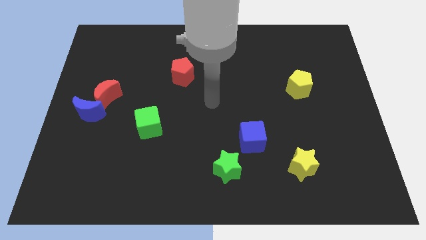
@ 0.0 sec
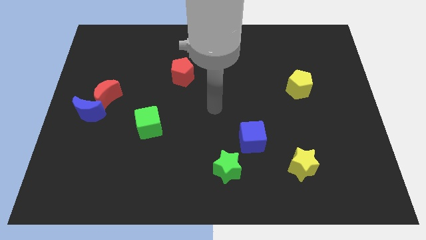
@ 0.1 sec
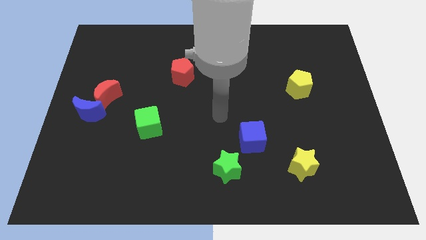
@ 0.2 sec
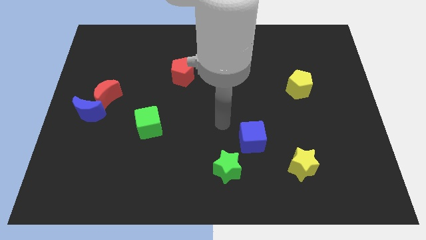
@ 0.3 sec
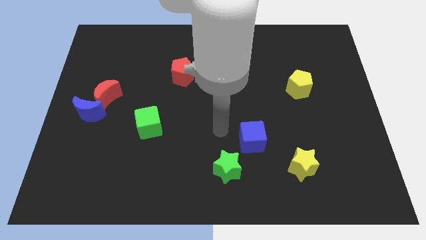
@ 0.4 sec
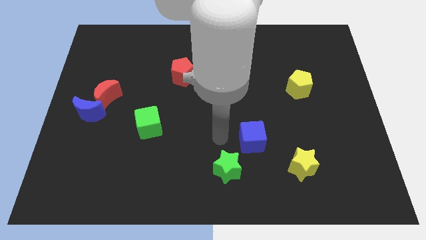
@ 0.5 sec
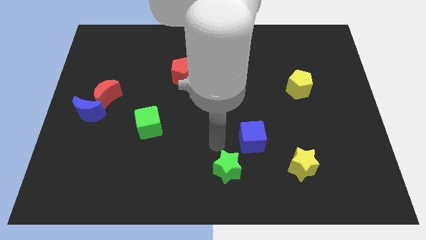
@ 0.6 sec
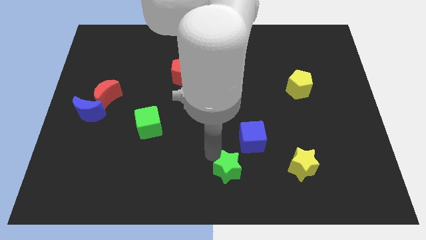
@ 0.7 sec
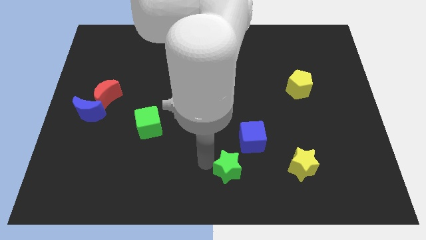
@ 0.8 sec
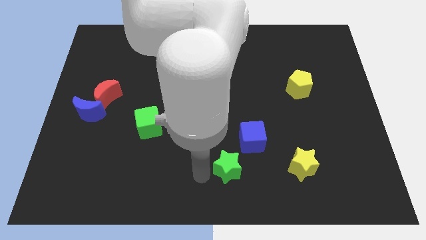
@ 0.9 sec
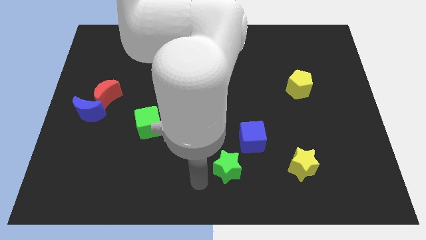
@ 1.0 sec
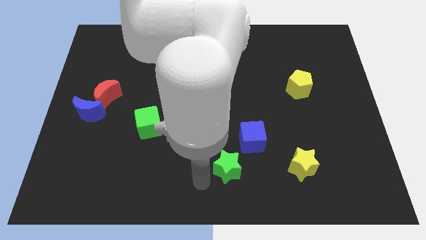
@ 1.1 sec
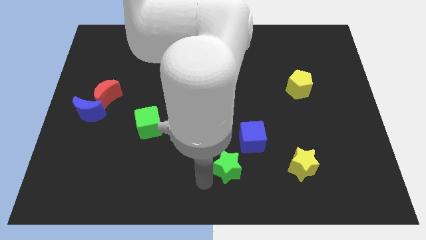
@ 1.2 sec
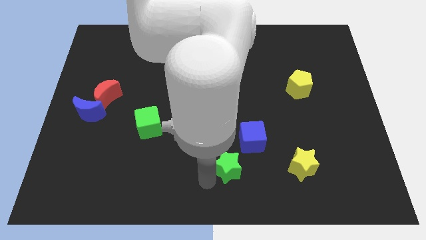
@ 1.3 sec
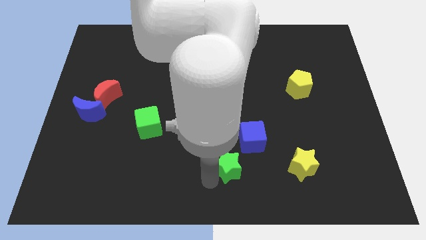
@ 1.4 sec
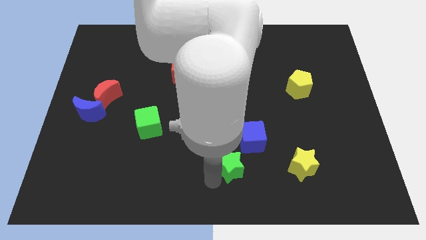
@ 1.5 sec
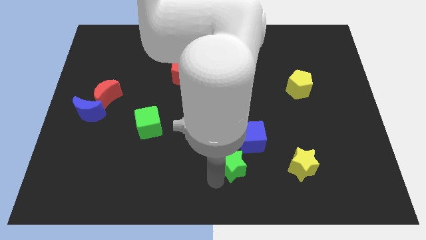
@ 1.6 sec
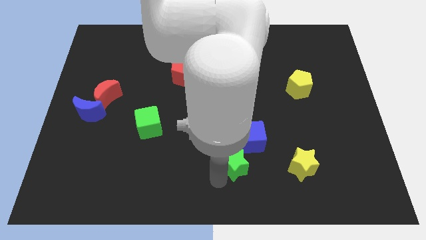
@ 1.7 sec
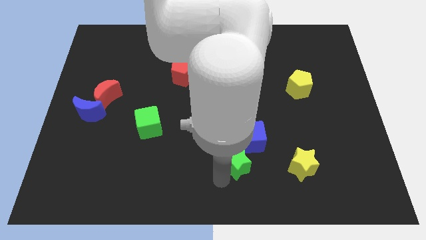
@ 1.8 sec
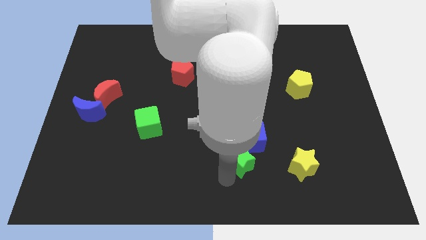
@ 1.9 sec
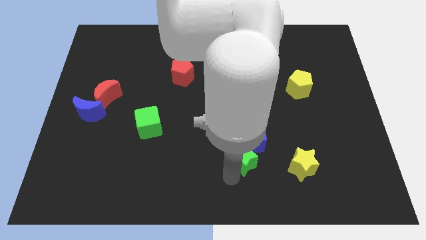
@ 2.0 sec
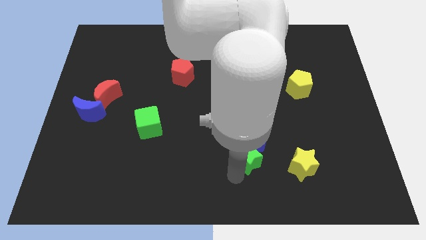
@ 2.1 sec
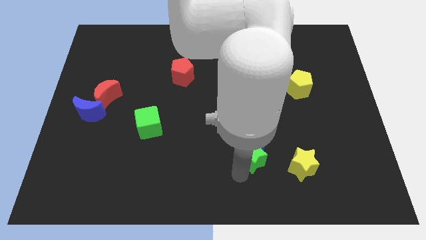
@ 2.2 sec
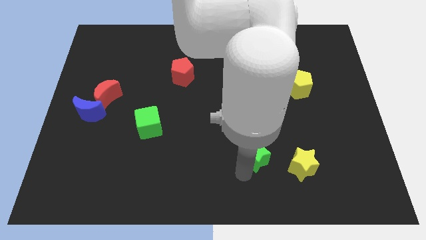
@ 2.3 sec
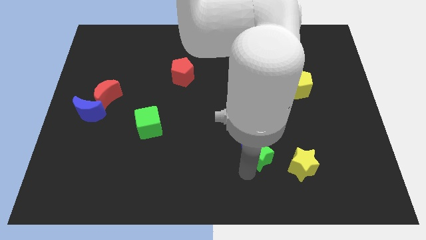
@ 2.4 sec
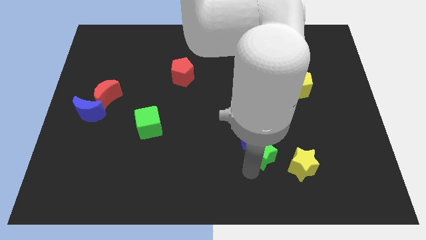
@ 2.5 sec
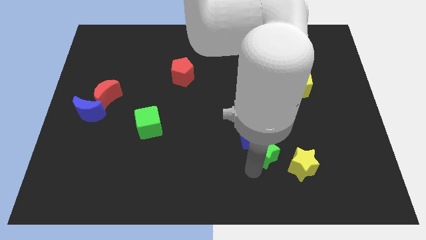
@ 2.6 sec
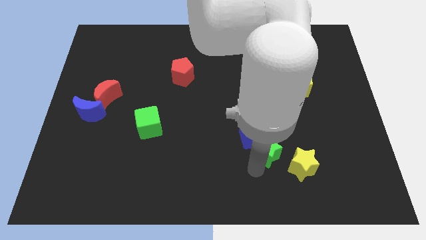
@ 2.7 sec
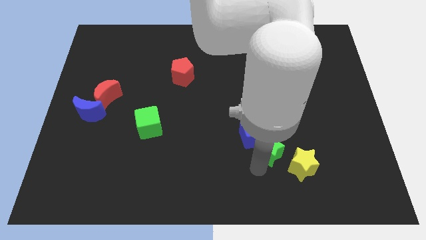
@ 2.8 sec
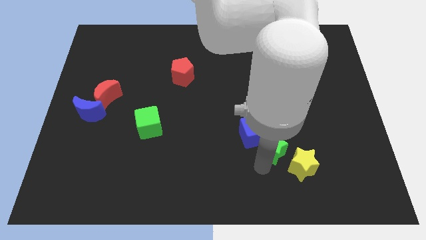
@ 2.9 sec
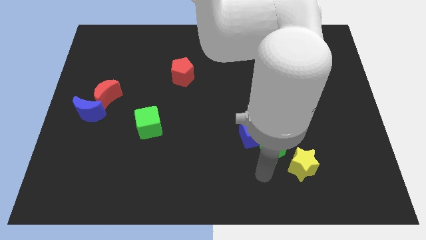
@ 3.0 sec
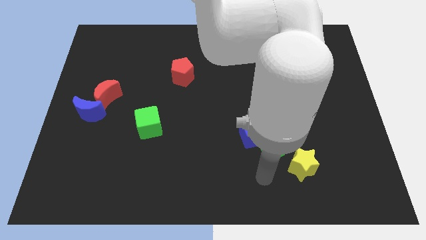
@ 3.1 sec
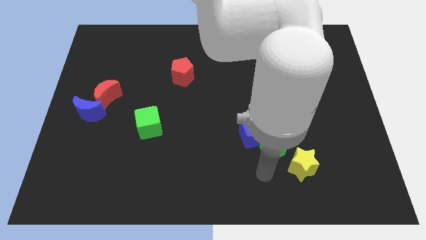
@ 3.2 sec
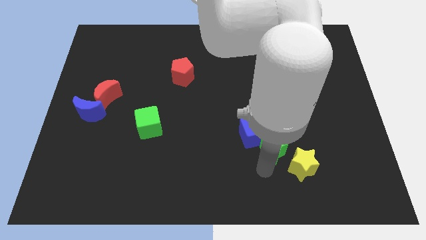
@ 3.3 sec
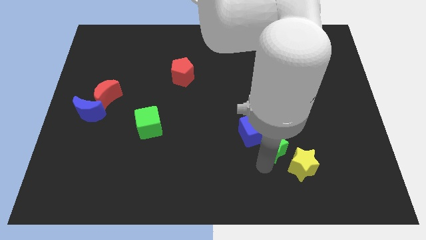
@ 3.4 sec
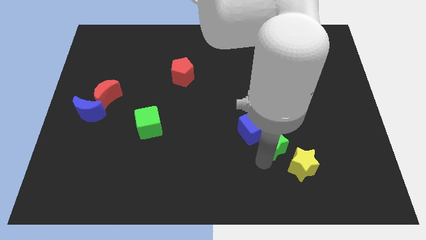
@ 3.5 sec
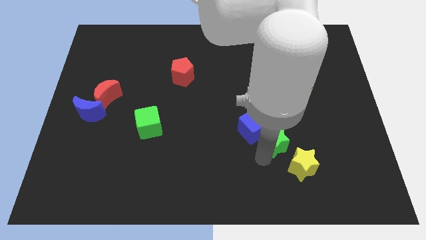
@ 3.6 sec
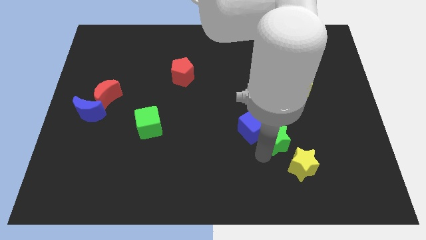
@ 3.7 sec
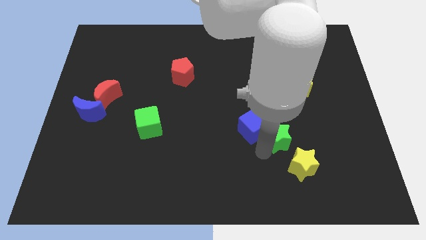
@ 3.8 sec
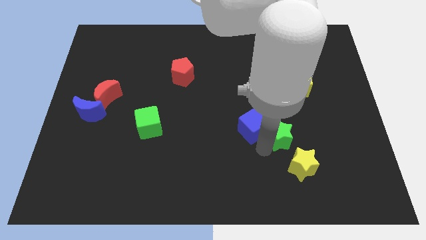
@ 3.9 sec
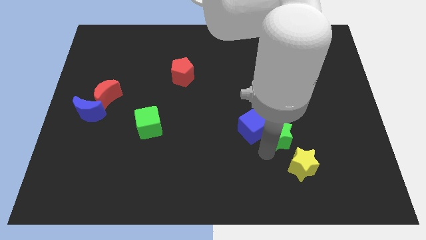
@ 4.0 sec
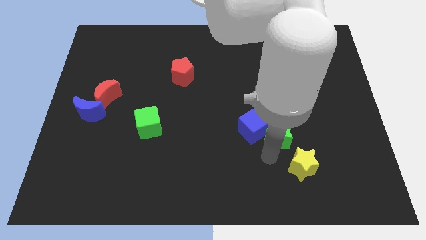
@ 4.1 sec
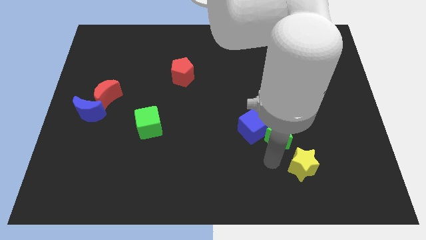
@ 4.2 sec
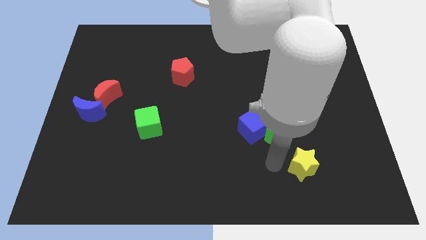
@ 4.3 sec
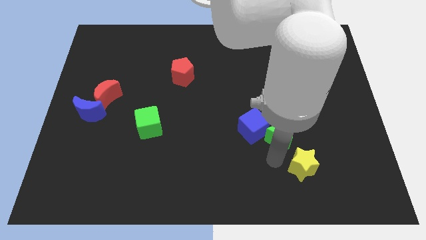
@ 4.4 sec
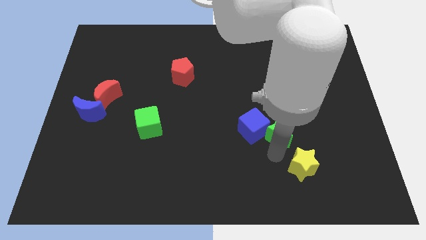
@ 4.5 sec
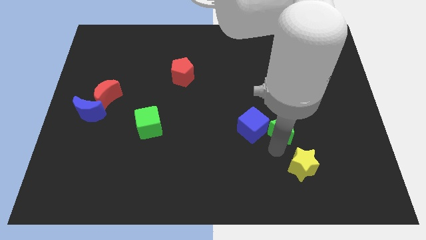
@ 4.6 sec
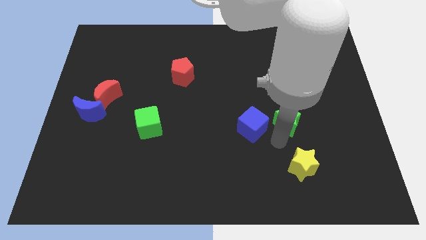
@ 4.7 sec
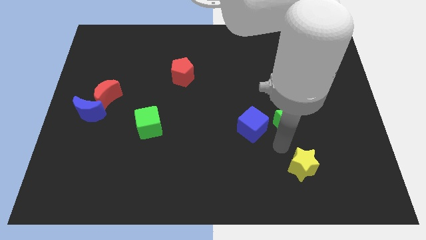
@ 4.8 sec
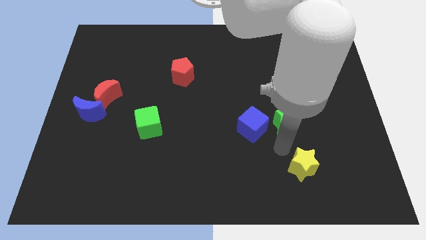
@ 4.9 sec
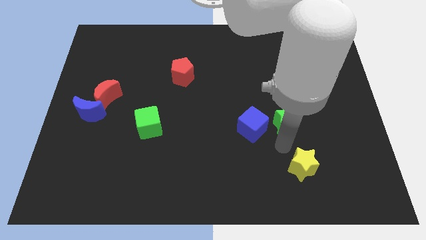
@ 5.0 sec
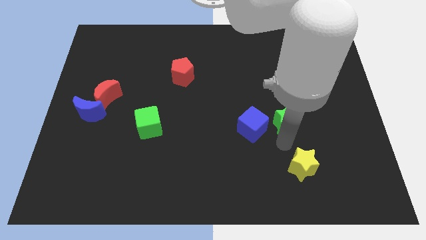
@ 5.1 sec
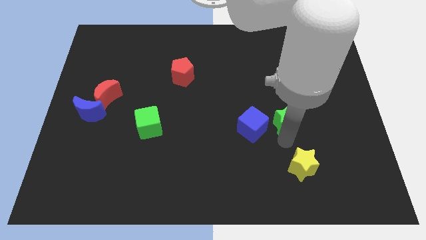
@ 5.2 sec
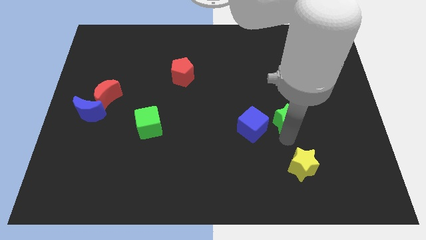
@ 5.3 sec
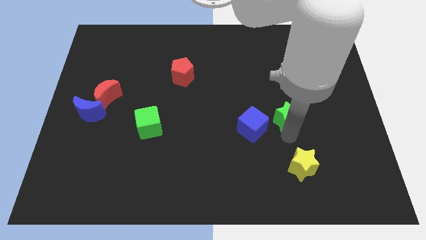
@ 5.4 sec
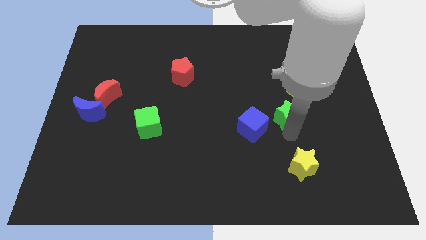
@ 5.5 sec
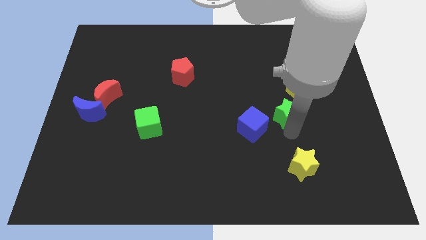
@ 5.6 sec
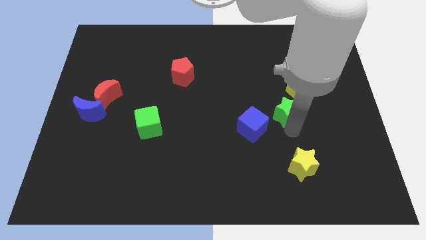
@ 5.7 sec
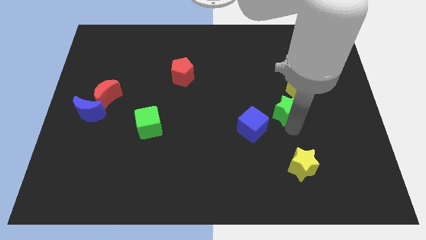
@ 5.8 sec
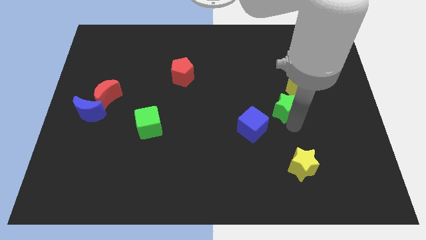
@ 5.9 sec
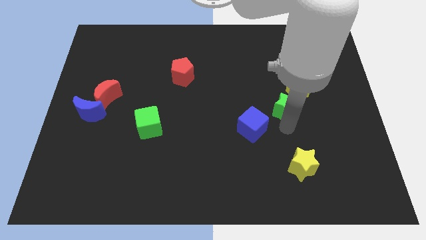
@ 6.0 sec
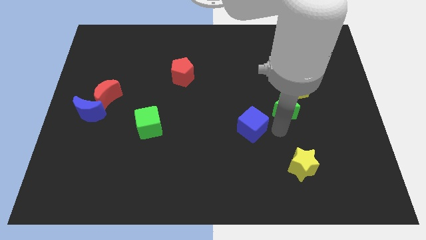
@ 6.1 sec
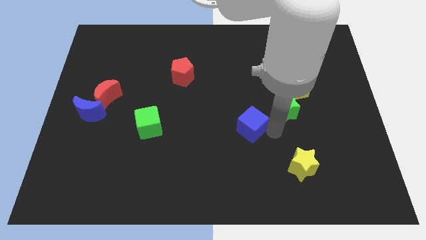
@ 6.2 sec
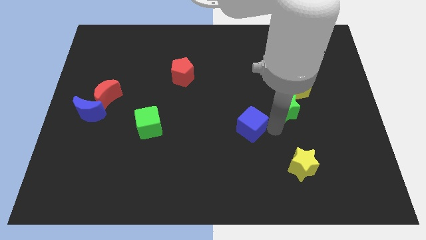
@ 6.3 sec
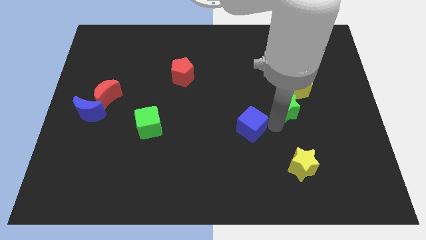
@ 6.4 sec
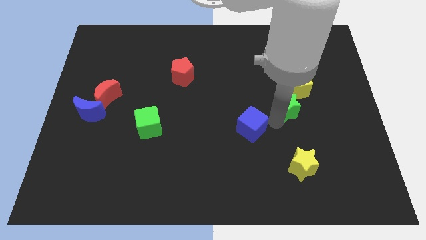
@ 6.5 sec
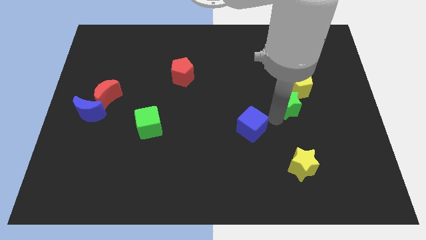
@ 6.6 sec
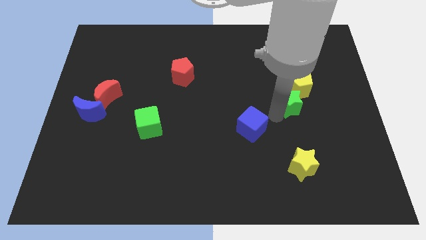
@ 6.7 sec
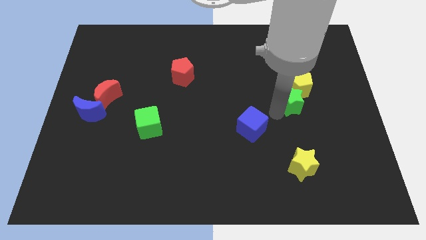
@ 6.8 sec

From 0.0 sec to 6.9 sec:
move the green star to the yellow pentagon
